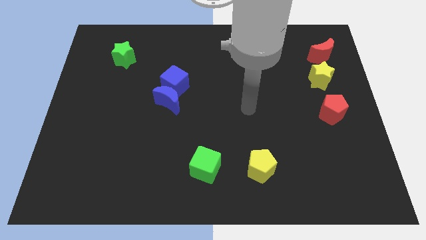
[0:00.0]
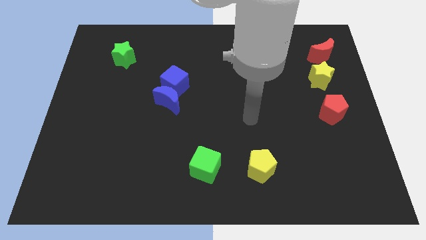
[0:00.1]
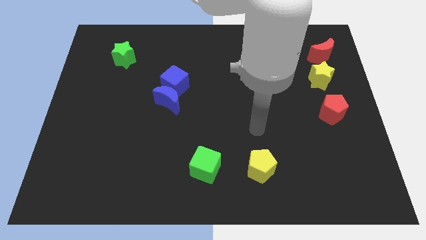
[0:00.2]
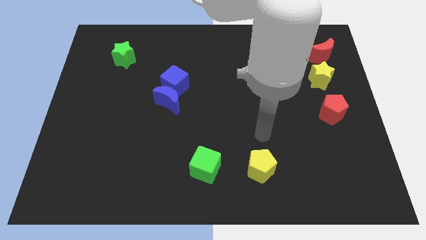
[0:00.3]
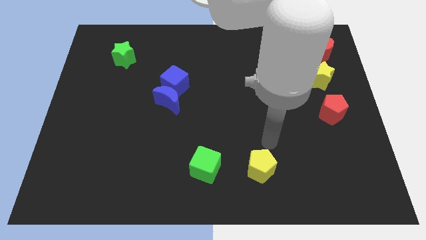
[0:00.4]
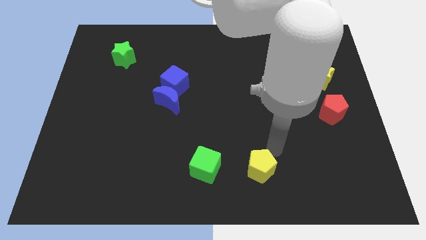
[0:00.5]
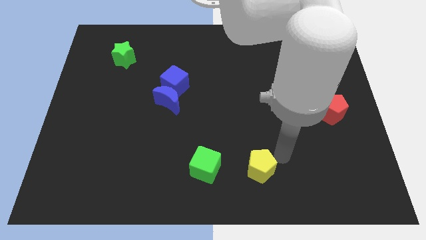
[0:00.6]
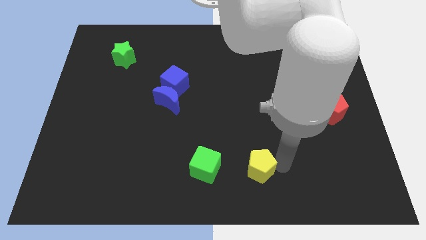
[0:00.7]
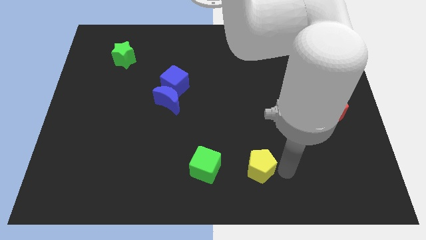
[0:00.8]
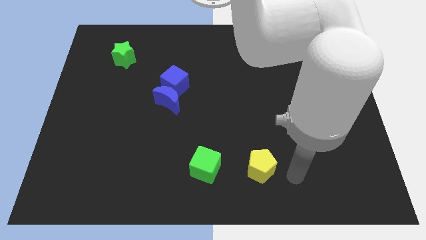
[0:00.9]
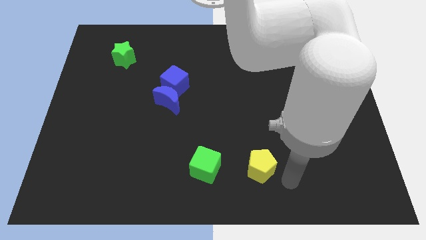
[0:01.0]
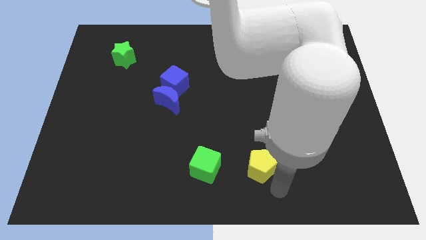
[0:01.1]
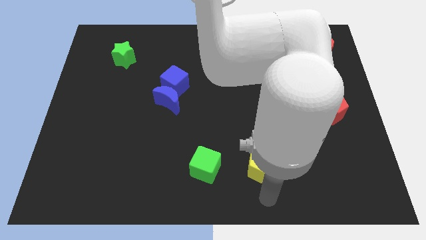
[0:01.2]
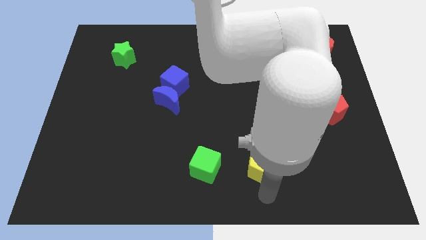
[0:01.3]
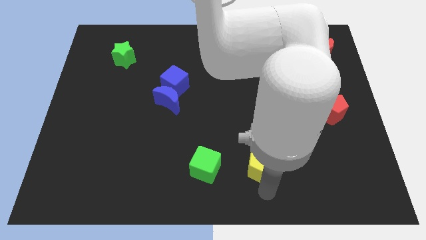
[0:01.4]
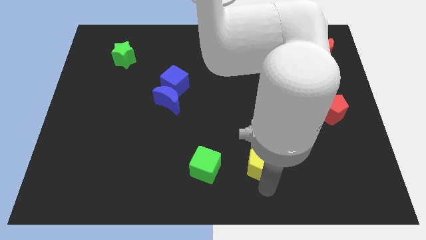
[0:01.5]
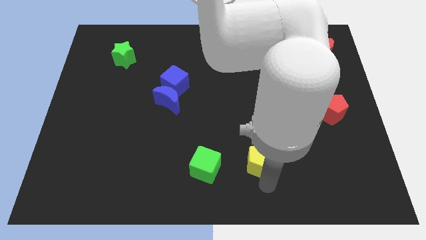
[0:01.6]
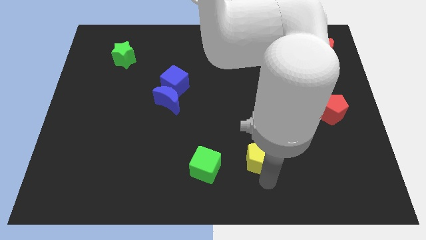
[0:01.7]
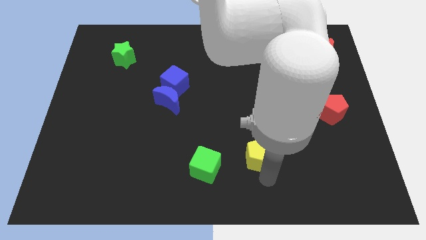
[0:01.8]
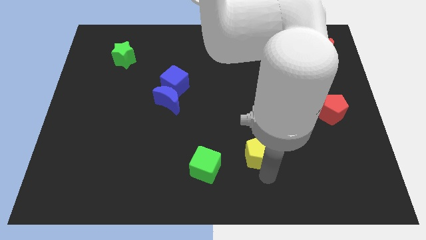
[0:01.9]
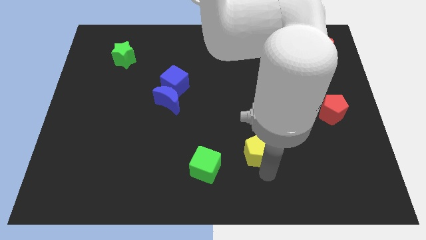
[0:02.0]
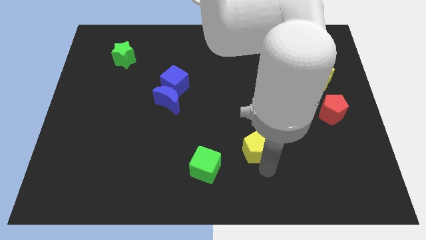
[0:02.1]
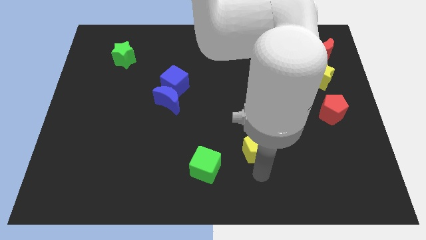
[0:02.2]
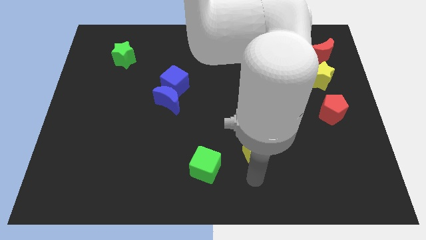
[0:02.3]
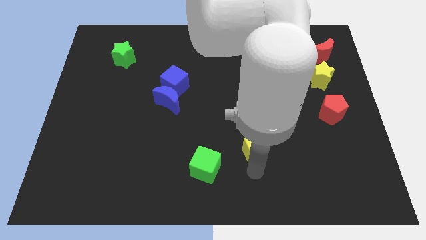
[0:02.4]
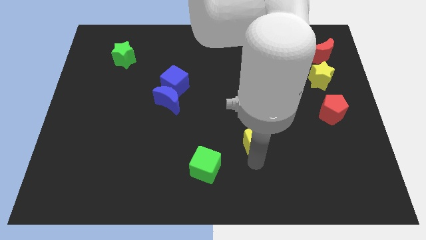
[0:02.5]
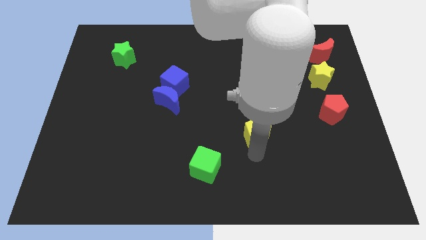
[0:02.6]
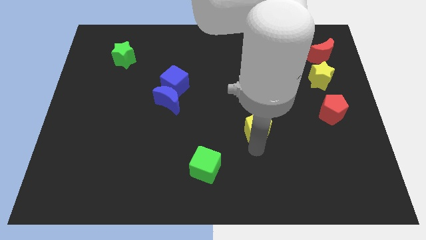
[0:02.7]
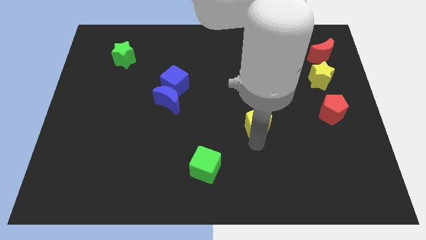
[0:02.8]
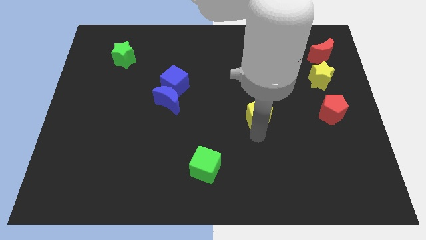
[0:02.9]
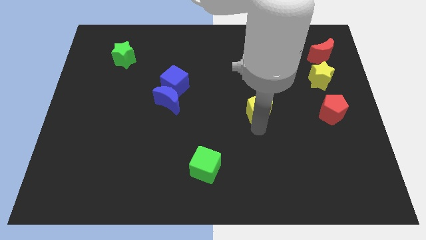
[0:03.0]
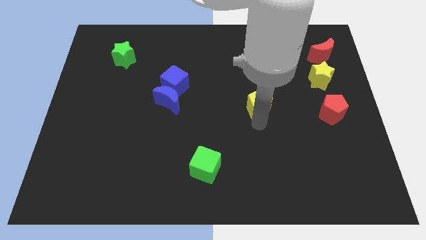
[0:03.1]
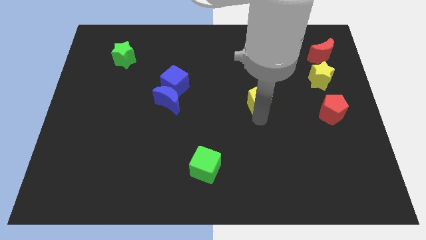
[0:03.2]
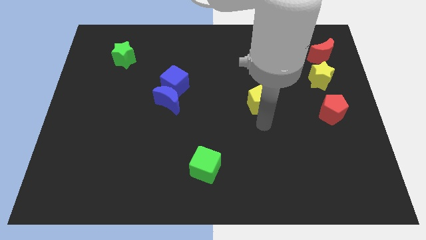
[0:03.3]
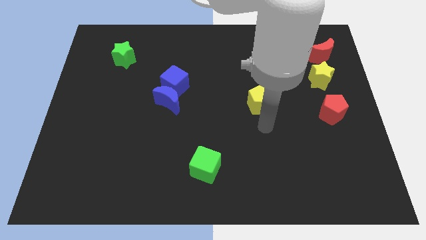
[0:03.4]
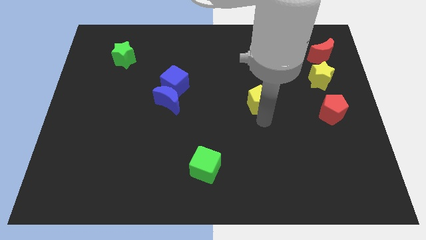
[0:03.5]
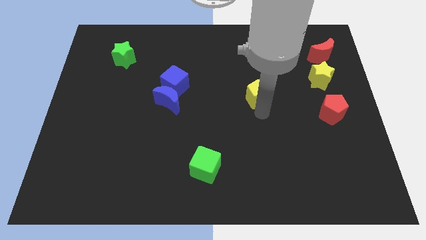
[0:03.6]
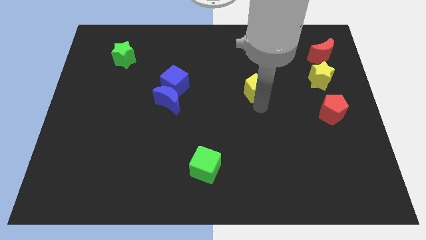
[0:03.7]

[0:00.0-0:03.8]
move the yellow pentagon upwards

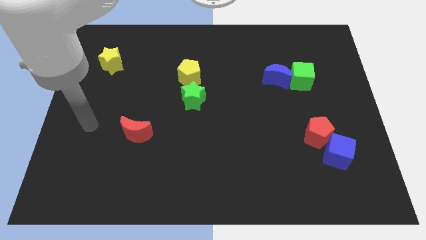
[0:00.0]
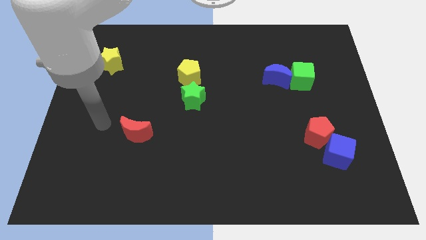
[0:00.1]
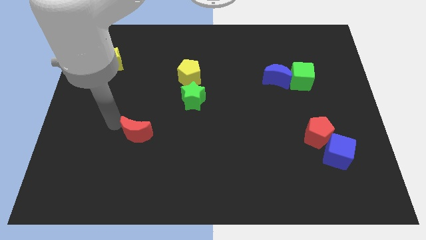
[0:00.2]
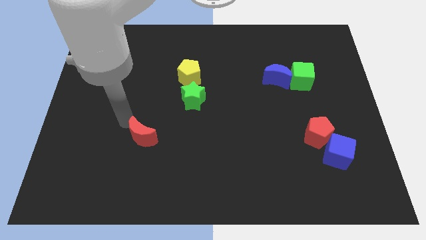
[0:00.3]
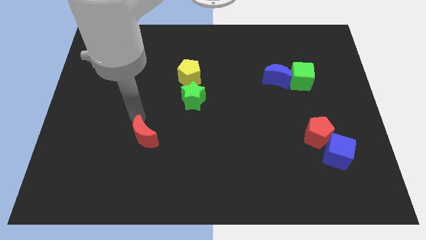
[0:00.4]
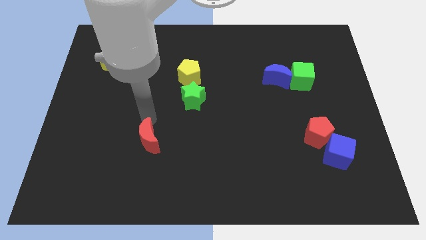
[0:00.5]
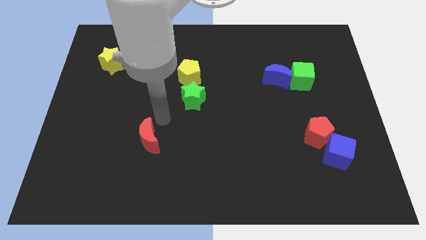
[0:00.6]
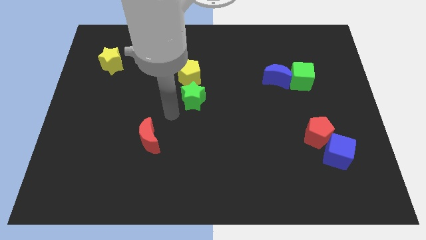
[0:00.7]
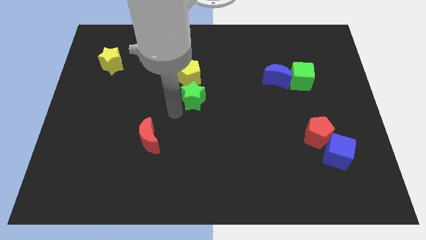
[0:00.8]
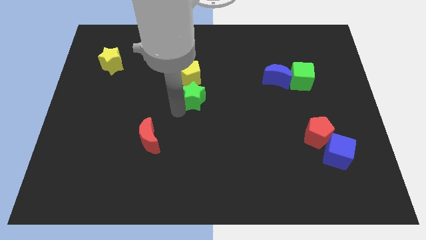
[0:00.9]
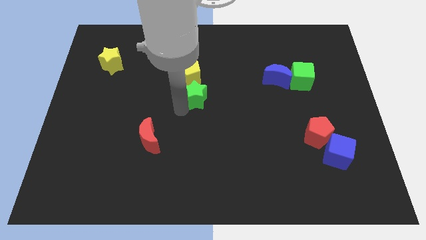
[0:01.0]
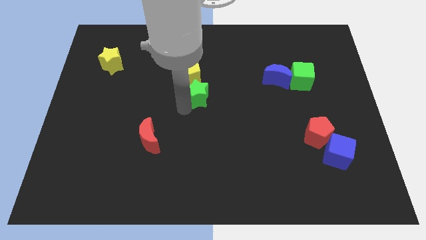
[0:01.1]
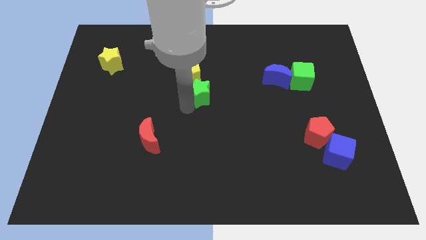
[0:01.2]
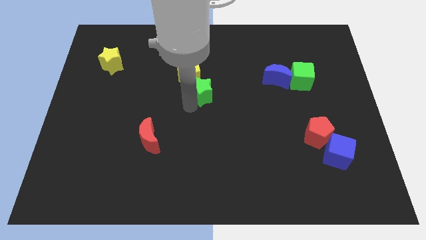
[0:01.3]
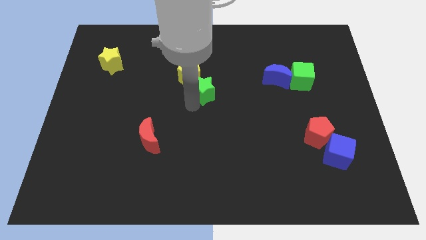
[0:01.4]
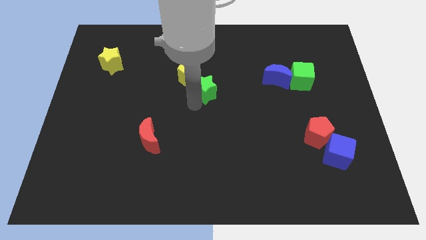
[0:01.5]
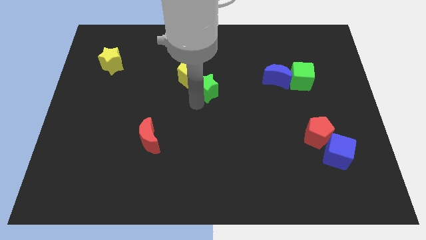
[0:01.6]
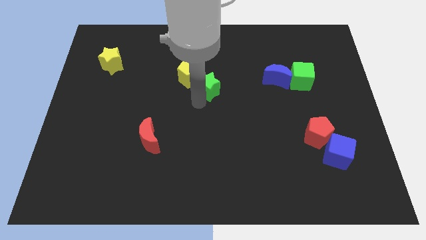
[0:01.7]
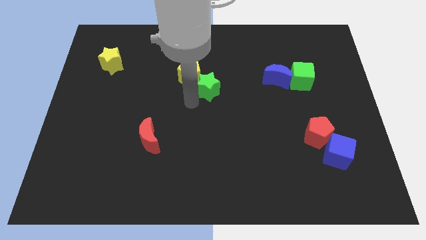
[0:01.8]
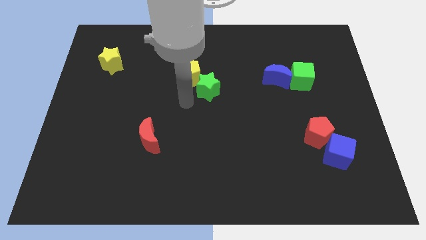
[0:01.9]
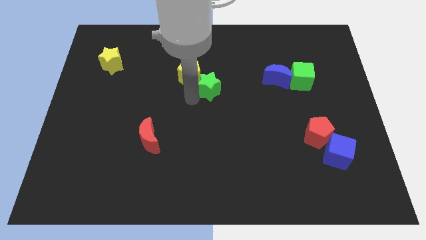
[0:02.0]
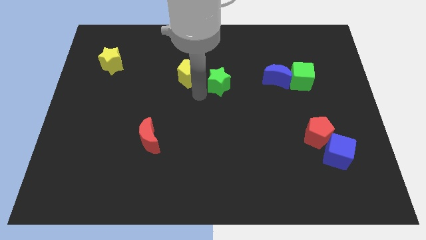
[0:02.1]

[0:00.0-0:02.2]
slide the green star diagonally upwards and right a bit

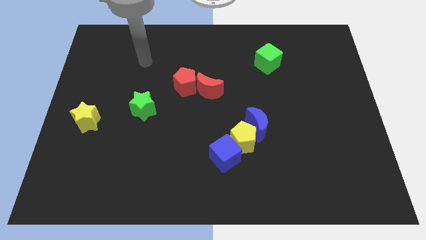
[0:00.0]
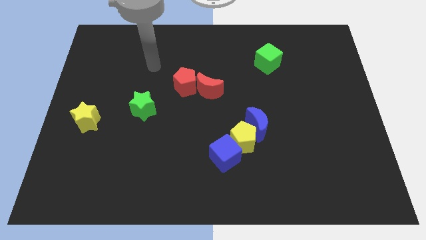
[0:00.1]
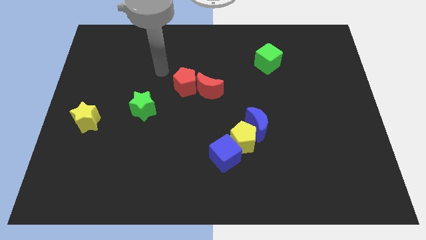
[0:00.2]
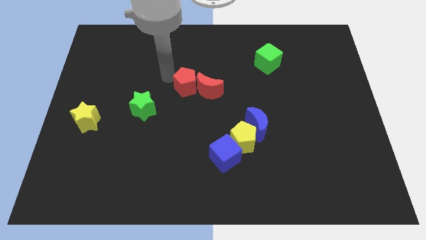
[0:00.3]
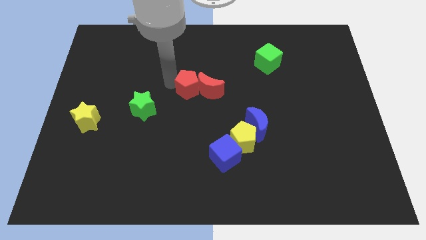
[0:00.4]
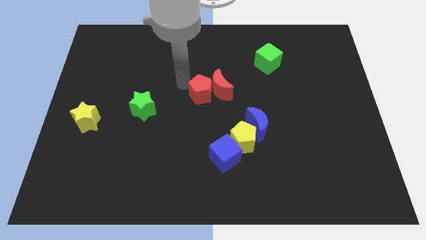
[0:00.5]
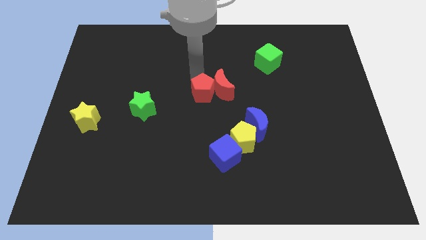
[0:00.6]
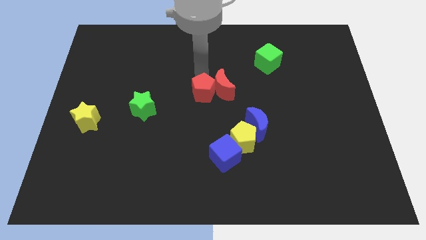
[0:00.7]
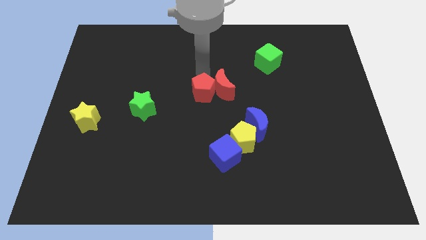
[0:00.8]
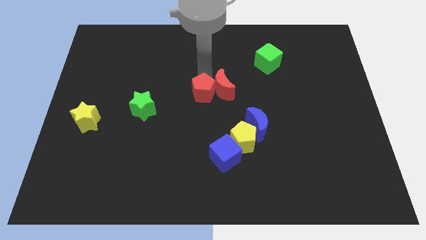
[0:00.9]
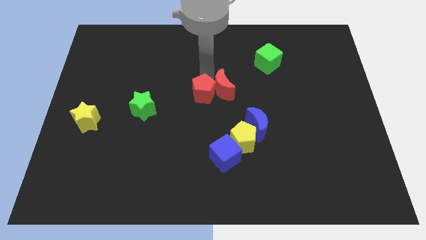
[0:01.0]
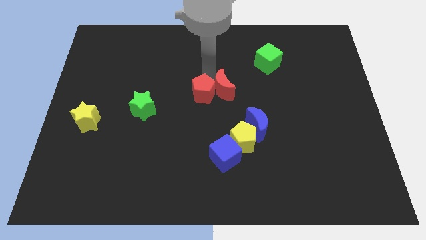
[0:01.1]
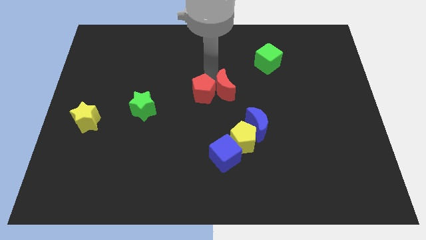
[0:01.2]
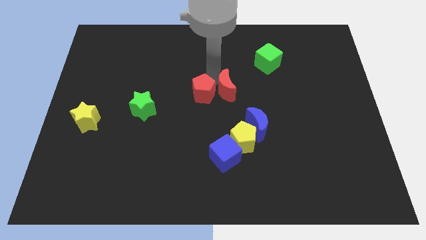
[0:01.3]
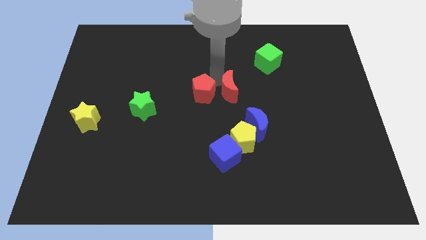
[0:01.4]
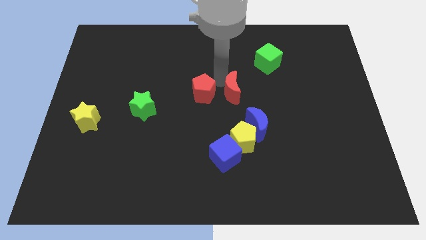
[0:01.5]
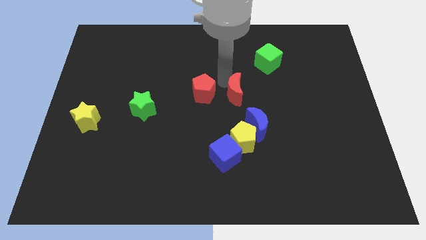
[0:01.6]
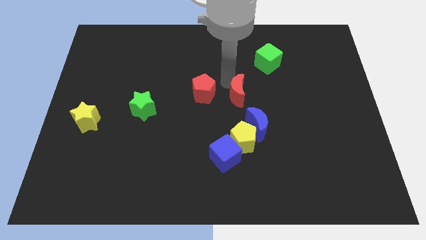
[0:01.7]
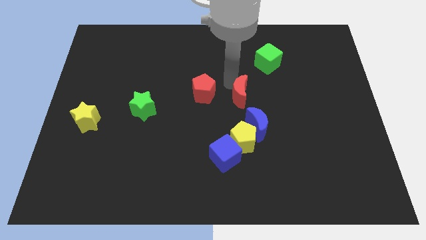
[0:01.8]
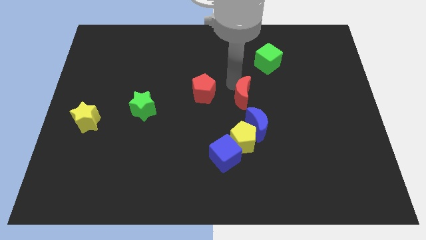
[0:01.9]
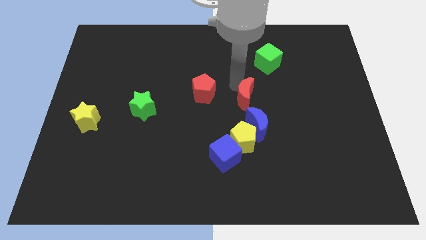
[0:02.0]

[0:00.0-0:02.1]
slightly move the red moon downwards and then to the right

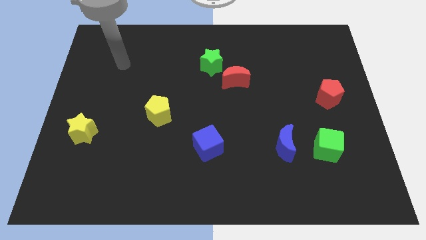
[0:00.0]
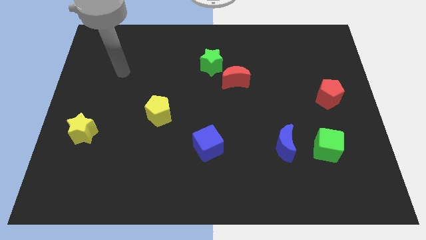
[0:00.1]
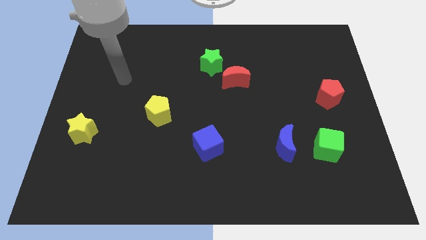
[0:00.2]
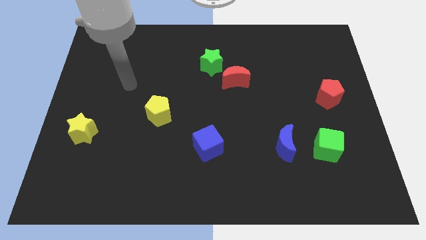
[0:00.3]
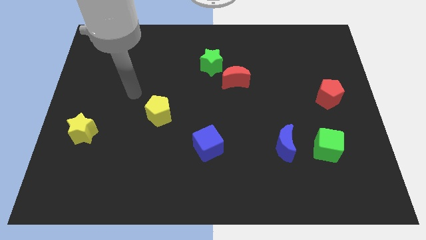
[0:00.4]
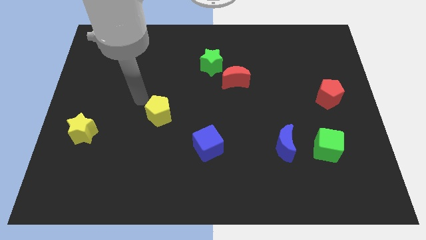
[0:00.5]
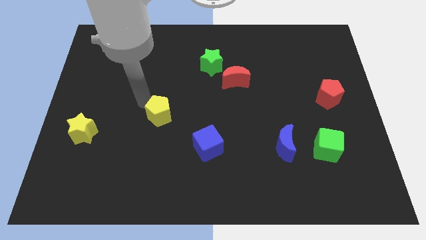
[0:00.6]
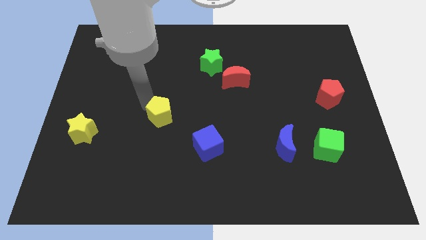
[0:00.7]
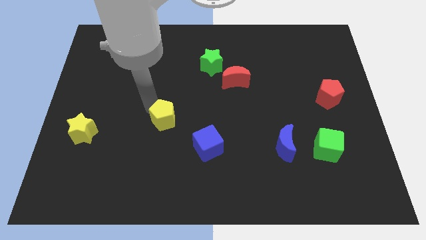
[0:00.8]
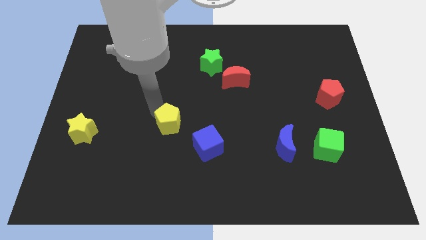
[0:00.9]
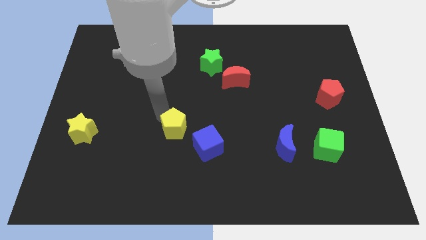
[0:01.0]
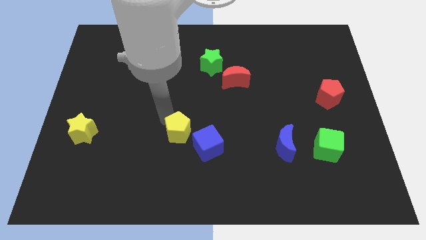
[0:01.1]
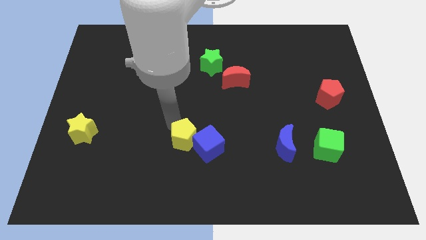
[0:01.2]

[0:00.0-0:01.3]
push the yellow pentagon down and right a bit
